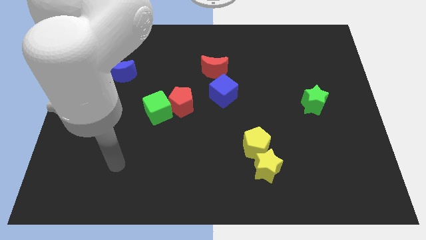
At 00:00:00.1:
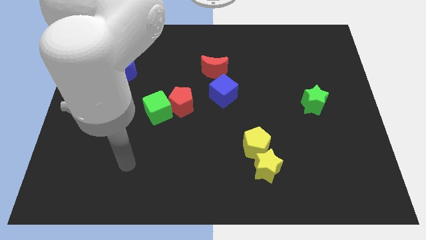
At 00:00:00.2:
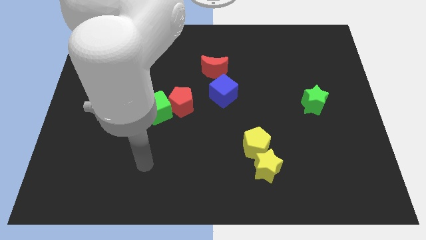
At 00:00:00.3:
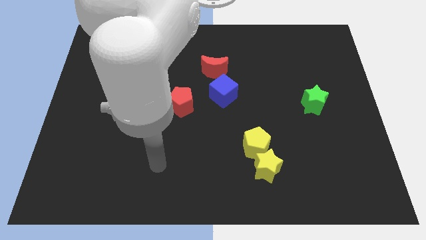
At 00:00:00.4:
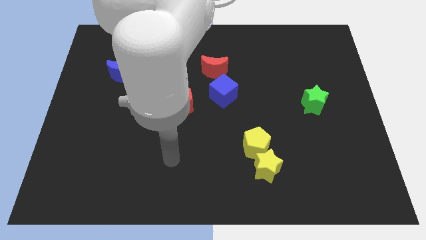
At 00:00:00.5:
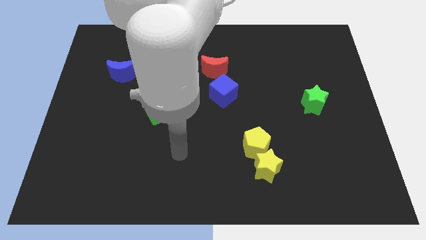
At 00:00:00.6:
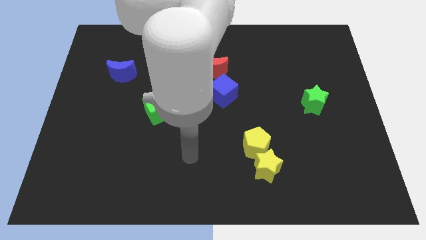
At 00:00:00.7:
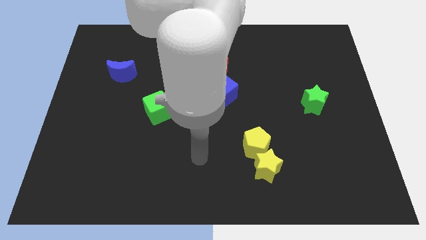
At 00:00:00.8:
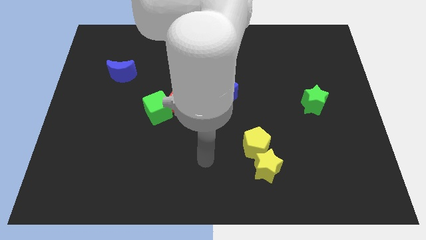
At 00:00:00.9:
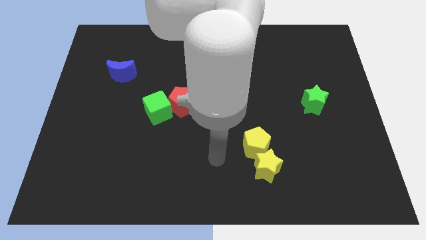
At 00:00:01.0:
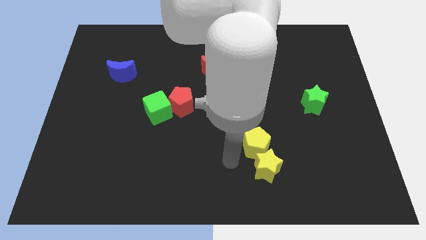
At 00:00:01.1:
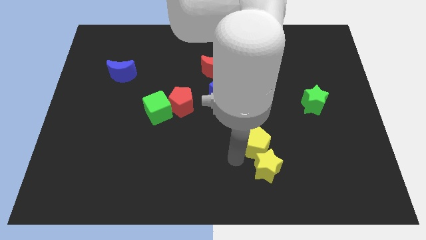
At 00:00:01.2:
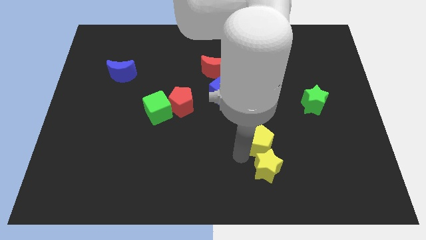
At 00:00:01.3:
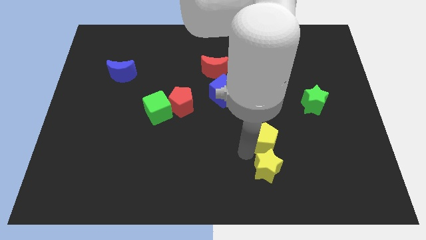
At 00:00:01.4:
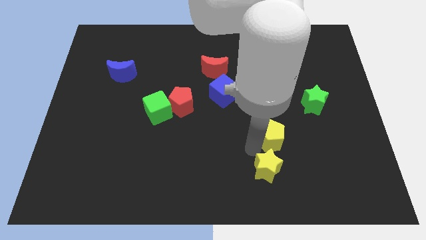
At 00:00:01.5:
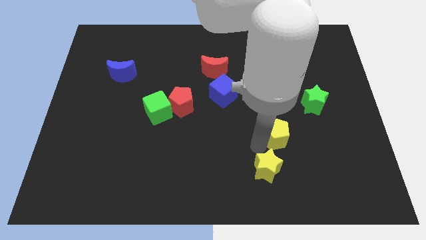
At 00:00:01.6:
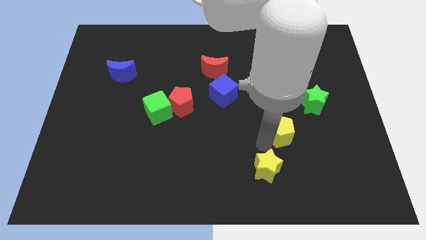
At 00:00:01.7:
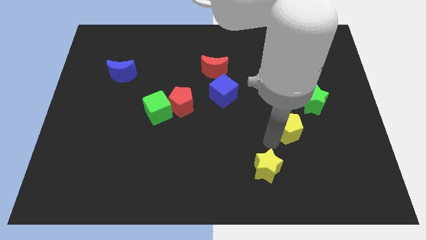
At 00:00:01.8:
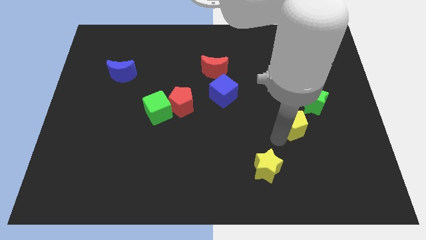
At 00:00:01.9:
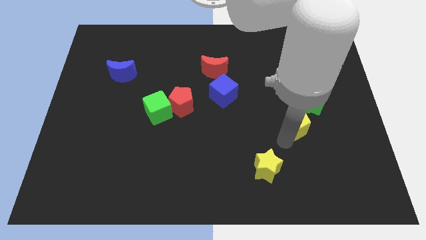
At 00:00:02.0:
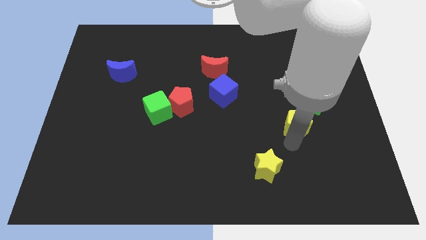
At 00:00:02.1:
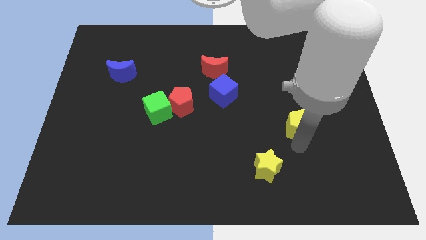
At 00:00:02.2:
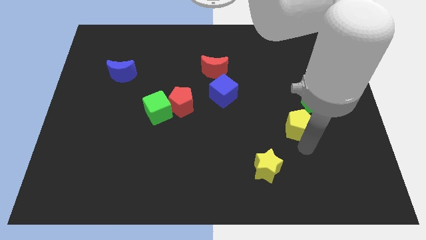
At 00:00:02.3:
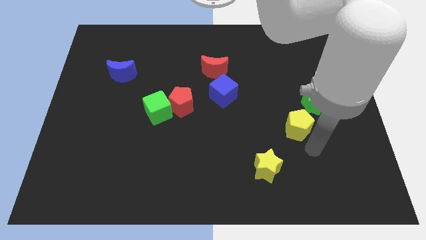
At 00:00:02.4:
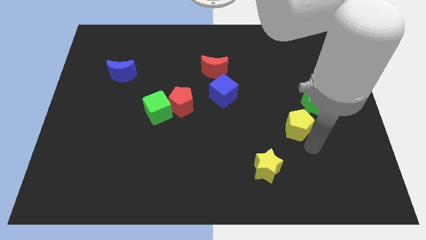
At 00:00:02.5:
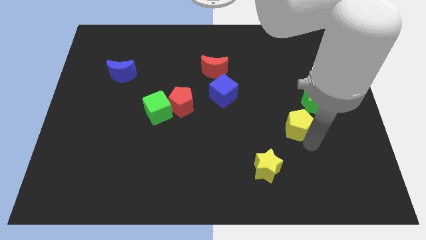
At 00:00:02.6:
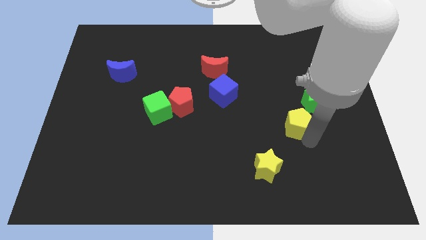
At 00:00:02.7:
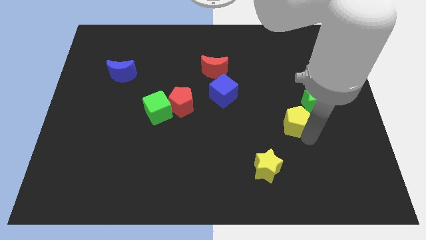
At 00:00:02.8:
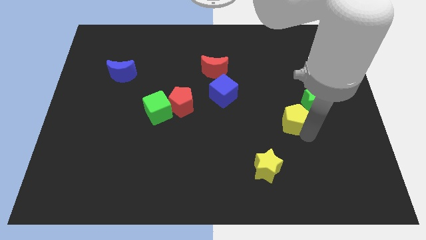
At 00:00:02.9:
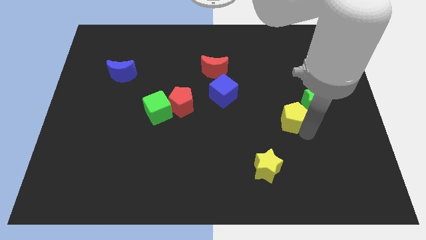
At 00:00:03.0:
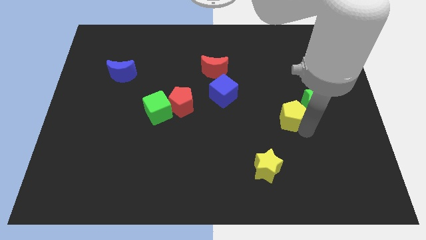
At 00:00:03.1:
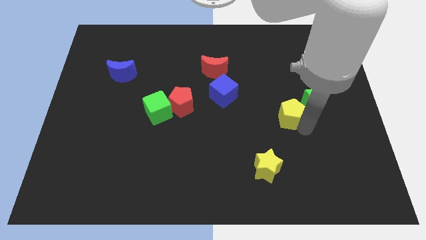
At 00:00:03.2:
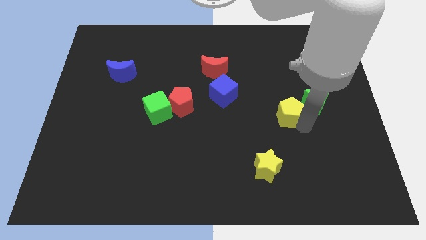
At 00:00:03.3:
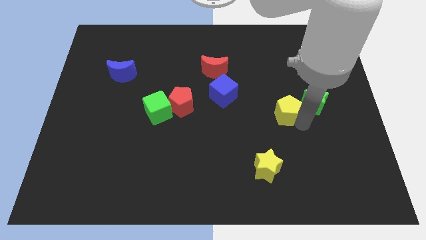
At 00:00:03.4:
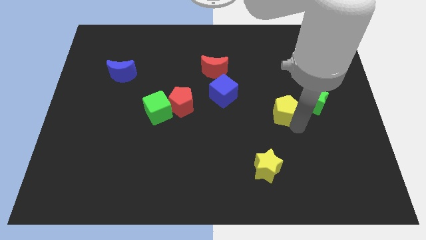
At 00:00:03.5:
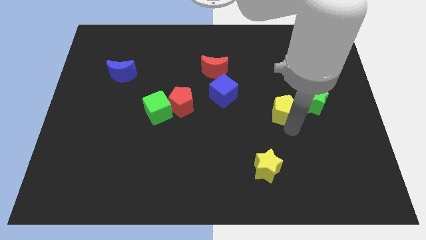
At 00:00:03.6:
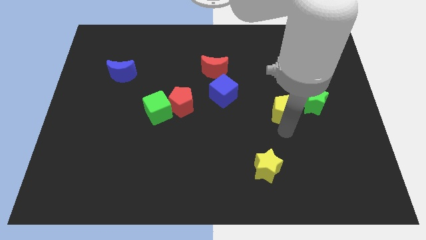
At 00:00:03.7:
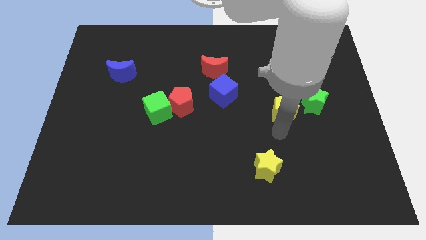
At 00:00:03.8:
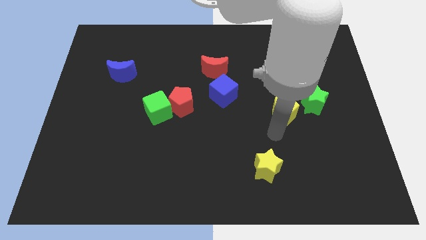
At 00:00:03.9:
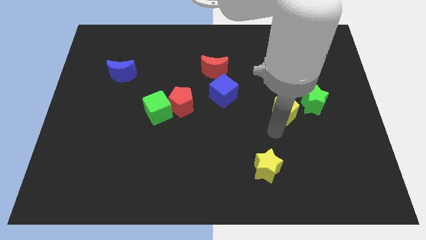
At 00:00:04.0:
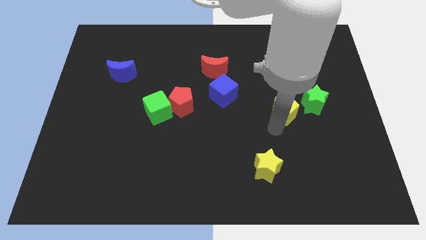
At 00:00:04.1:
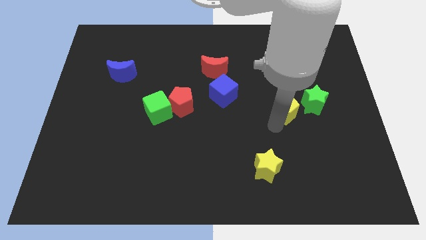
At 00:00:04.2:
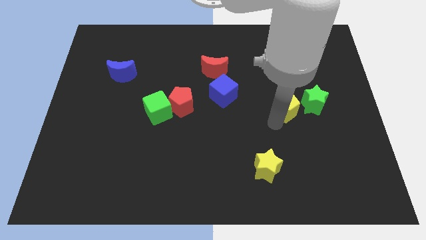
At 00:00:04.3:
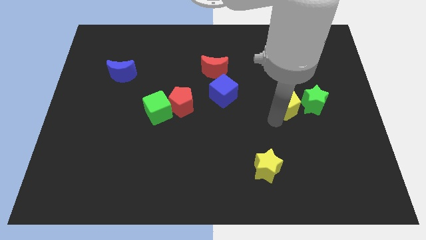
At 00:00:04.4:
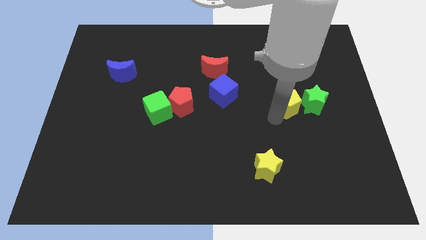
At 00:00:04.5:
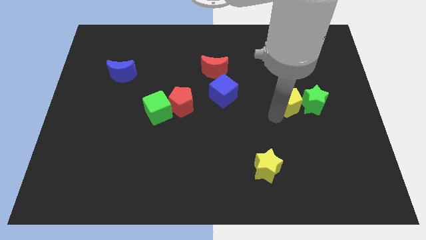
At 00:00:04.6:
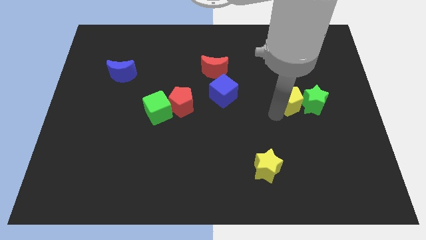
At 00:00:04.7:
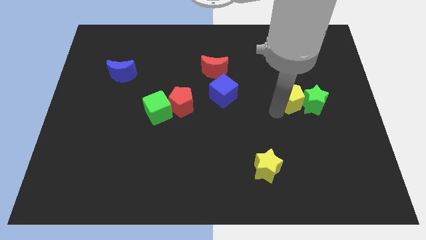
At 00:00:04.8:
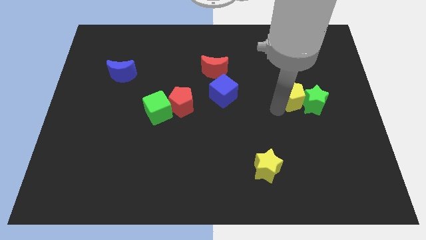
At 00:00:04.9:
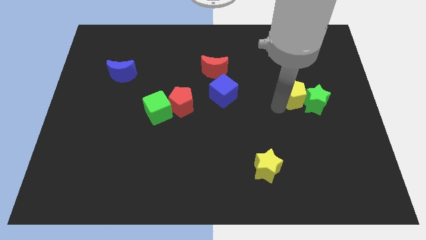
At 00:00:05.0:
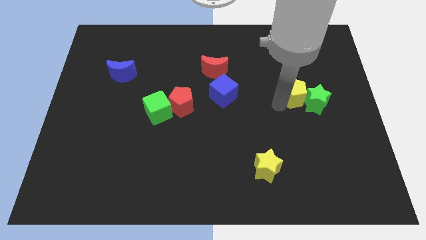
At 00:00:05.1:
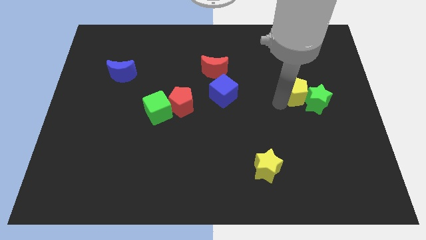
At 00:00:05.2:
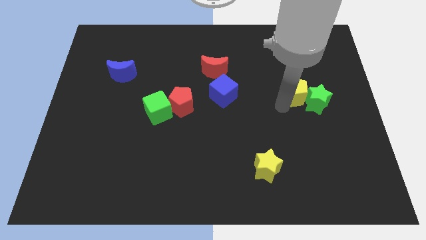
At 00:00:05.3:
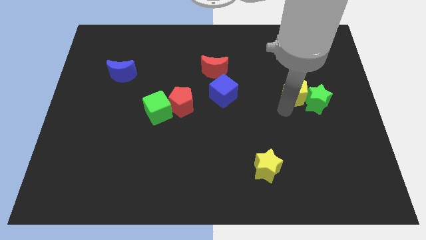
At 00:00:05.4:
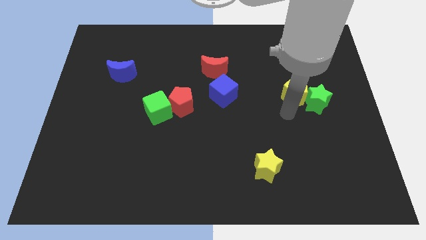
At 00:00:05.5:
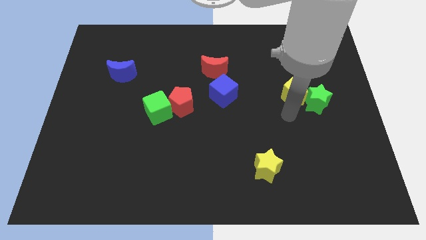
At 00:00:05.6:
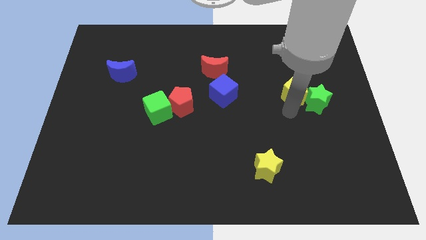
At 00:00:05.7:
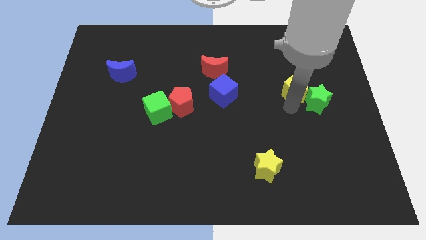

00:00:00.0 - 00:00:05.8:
move the yellow pentagon to the top of the green star

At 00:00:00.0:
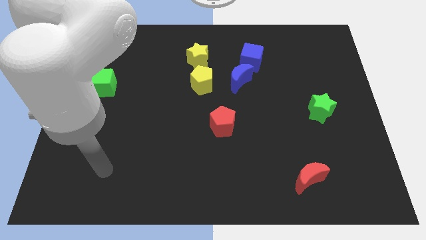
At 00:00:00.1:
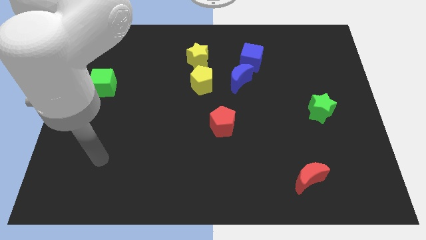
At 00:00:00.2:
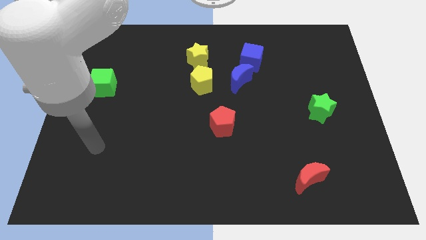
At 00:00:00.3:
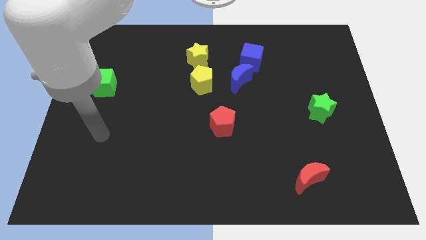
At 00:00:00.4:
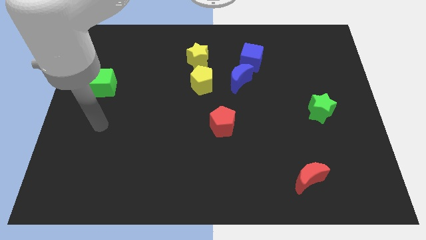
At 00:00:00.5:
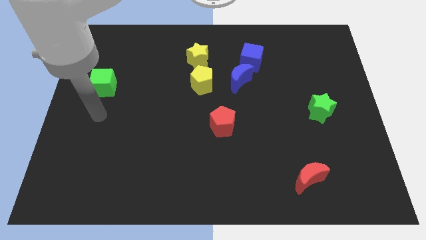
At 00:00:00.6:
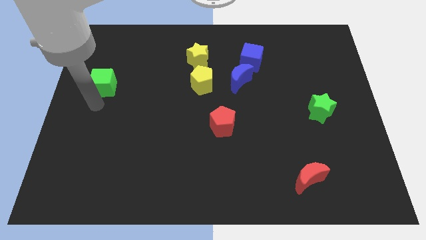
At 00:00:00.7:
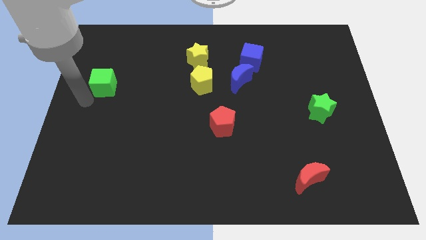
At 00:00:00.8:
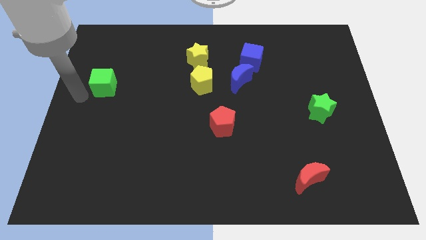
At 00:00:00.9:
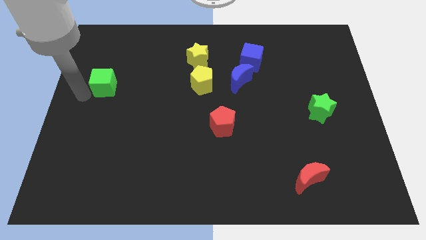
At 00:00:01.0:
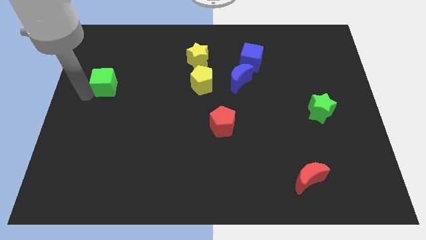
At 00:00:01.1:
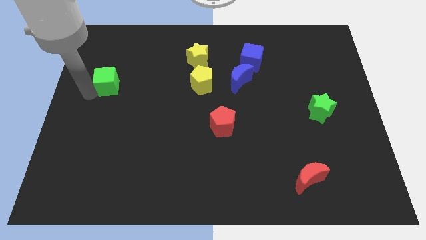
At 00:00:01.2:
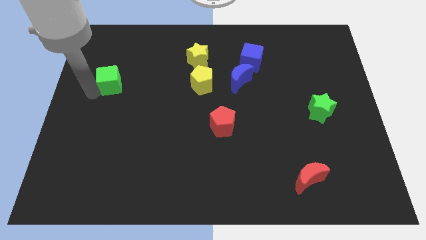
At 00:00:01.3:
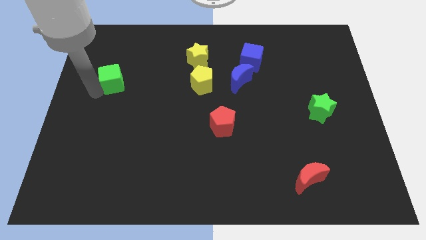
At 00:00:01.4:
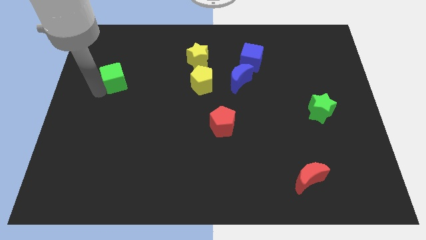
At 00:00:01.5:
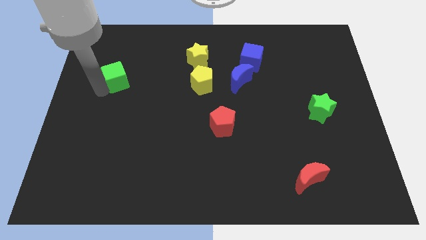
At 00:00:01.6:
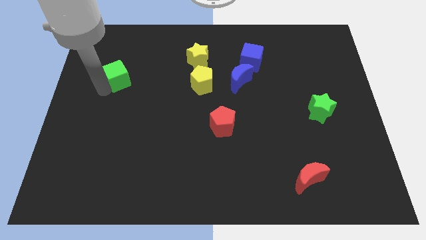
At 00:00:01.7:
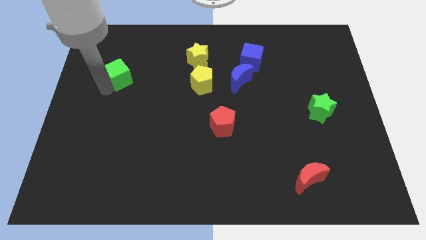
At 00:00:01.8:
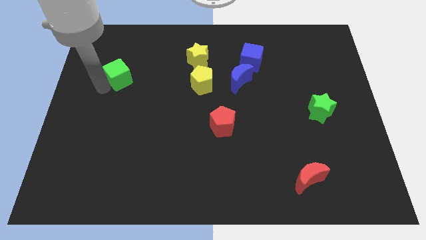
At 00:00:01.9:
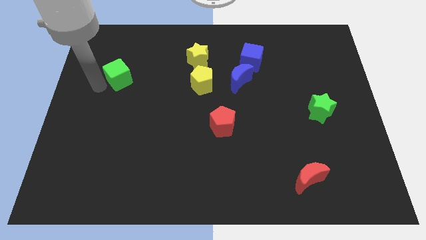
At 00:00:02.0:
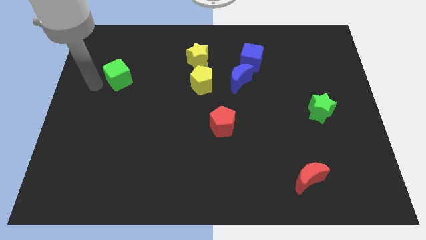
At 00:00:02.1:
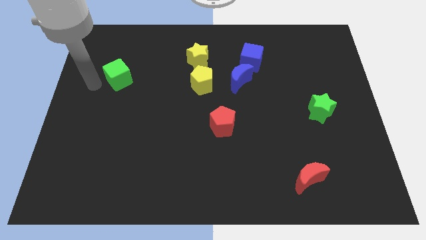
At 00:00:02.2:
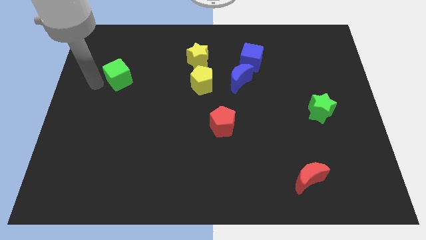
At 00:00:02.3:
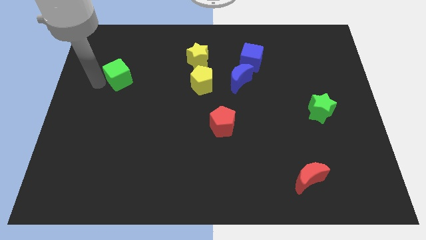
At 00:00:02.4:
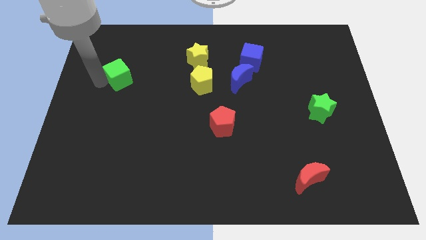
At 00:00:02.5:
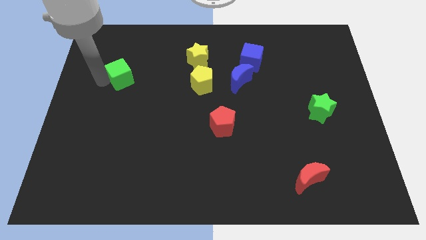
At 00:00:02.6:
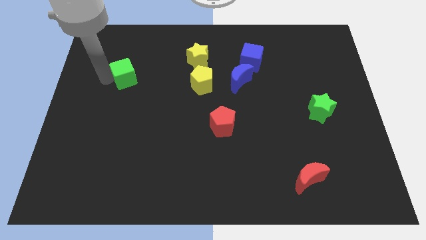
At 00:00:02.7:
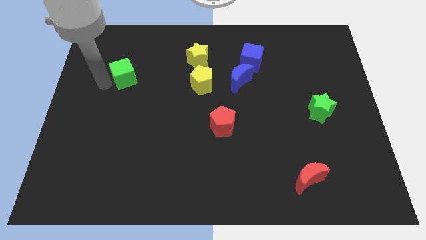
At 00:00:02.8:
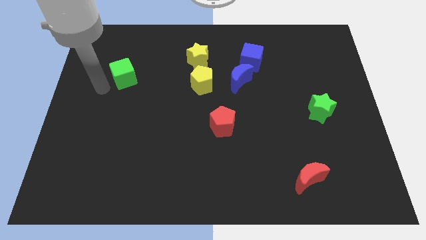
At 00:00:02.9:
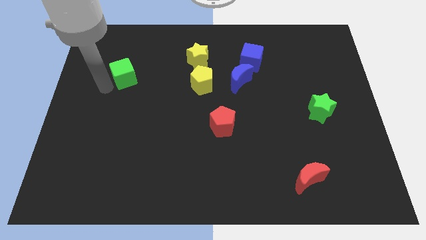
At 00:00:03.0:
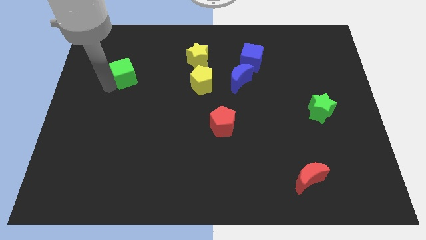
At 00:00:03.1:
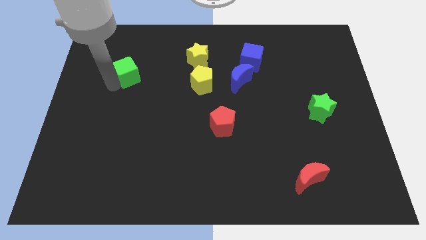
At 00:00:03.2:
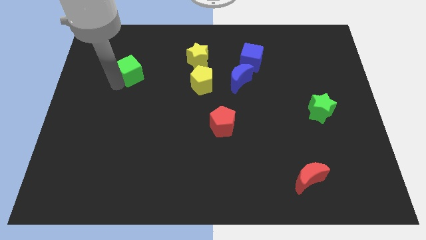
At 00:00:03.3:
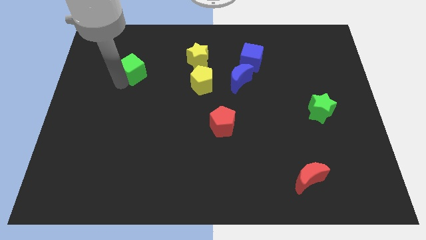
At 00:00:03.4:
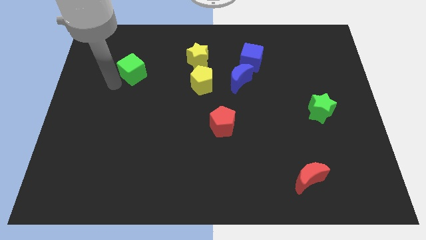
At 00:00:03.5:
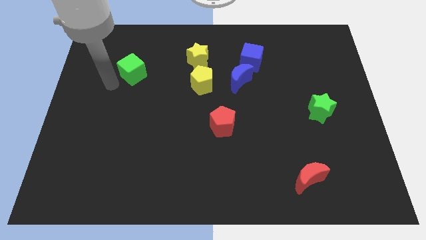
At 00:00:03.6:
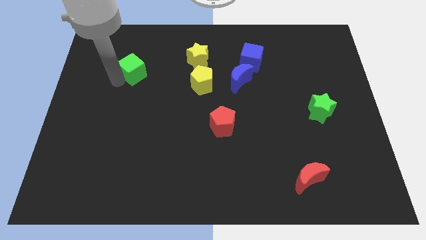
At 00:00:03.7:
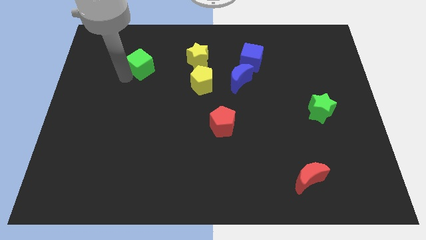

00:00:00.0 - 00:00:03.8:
slide the green cube left of the yellow star
